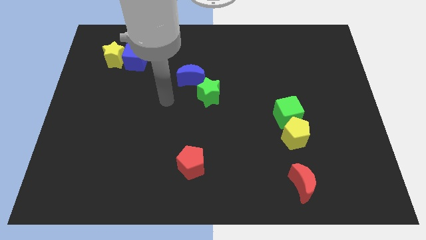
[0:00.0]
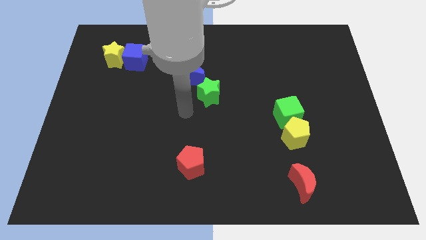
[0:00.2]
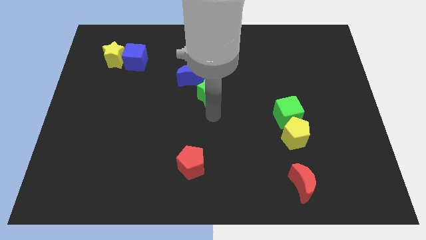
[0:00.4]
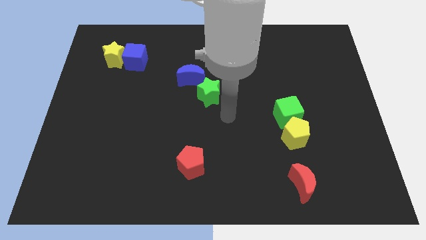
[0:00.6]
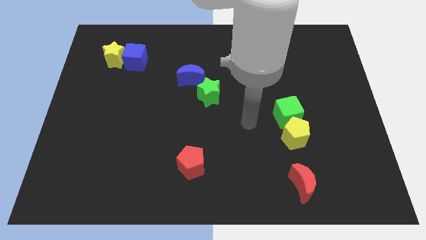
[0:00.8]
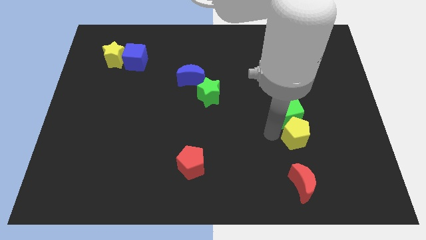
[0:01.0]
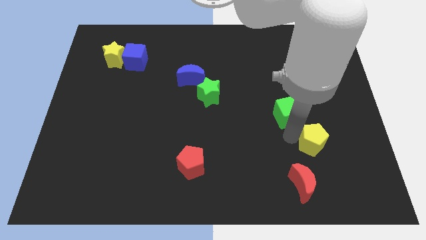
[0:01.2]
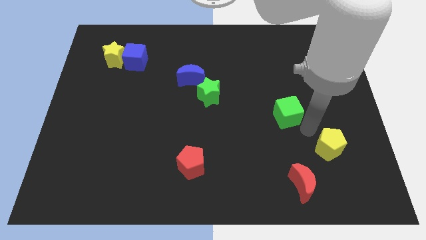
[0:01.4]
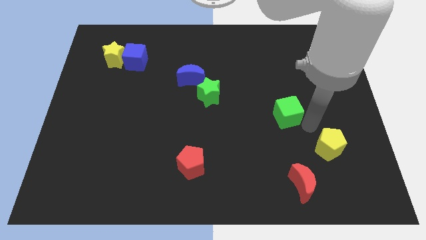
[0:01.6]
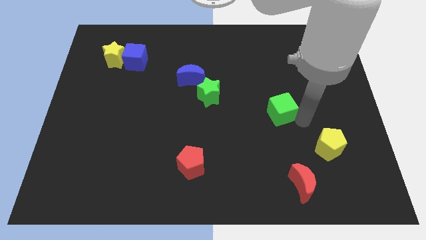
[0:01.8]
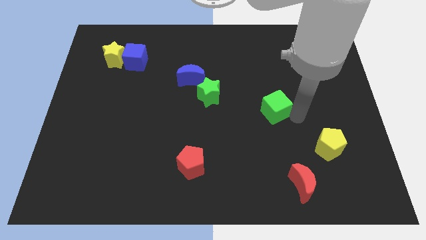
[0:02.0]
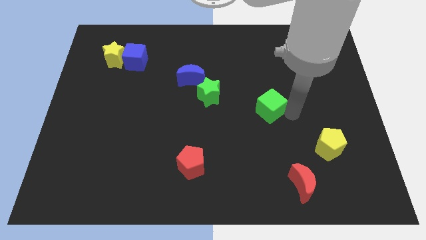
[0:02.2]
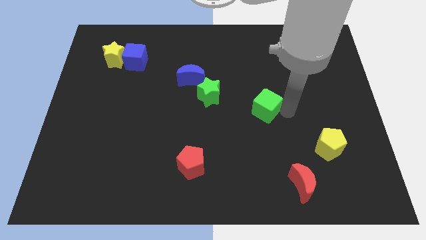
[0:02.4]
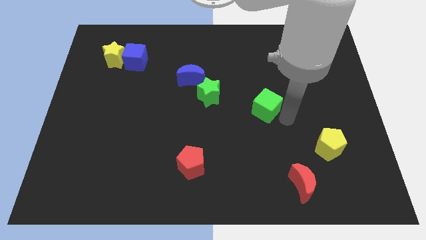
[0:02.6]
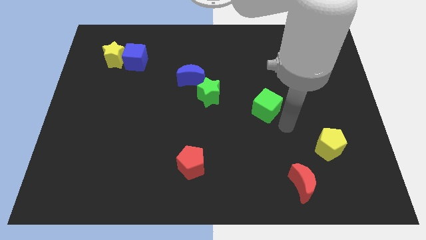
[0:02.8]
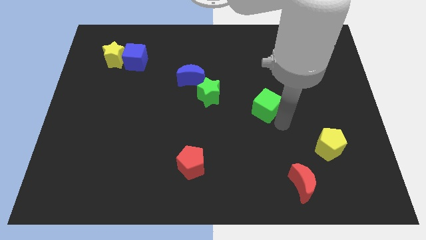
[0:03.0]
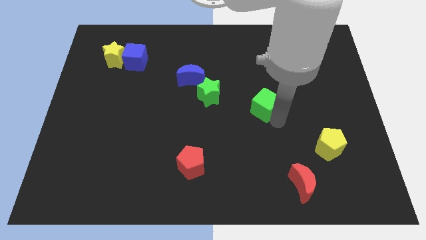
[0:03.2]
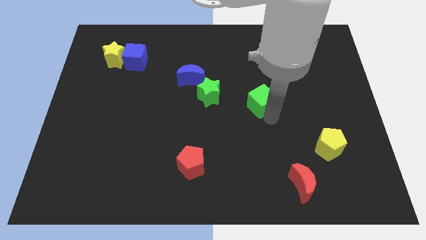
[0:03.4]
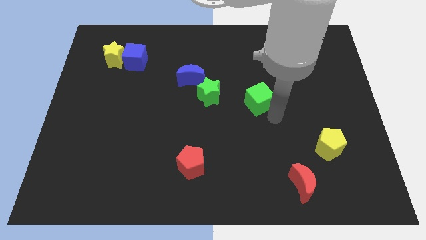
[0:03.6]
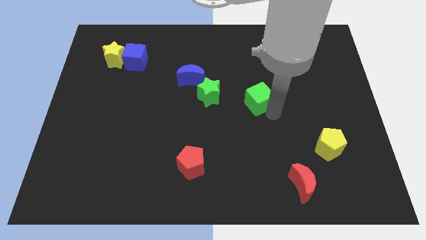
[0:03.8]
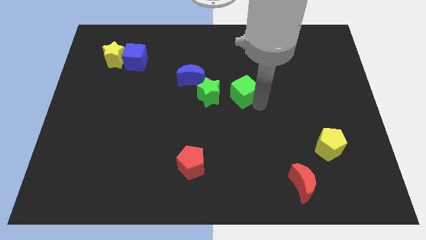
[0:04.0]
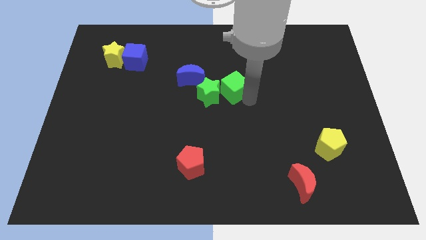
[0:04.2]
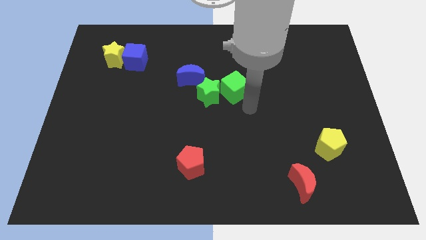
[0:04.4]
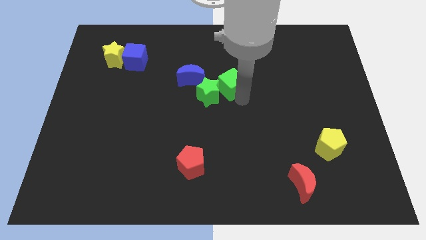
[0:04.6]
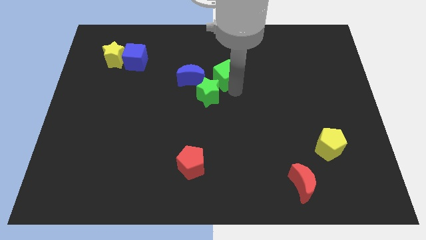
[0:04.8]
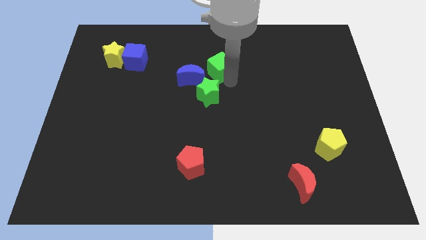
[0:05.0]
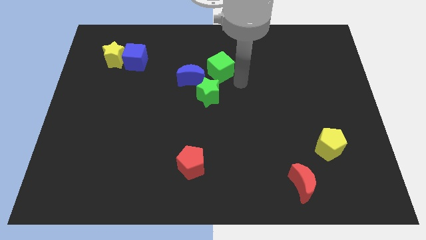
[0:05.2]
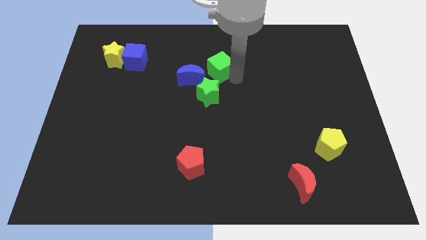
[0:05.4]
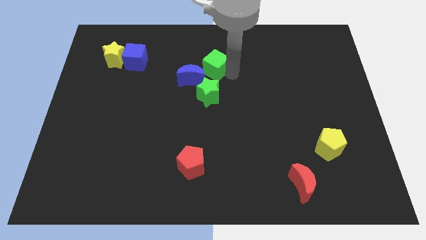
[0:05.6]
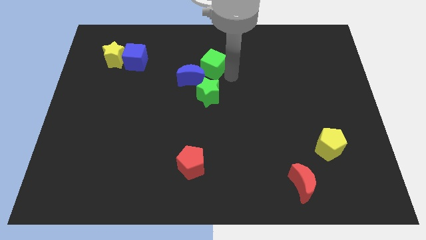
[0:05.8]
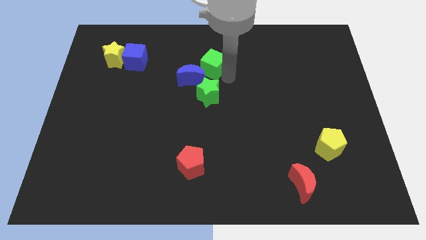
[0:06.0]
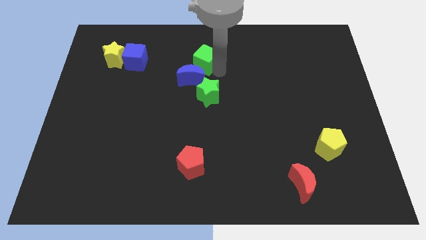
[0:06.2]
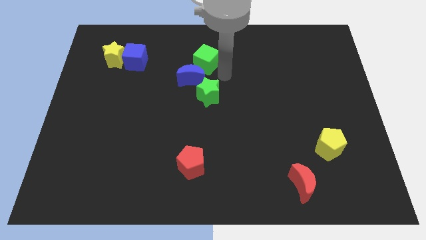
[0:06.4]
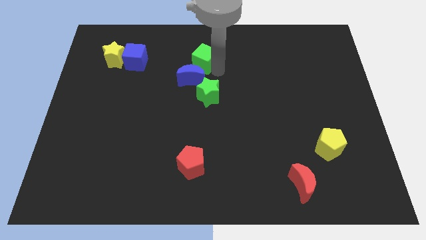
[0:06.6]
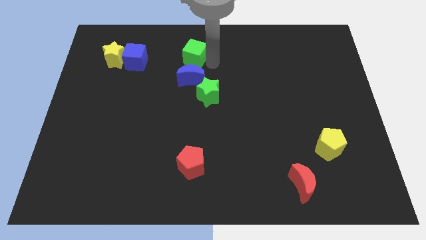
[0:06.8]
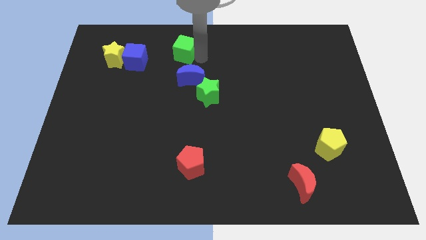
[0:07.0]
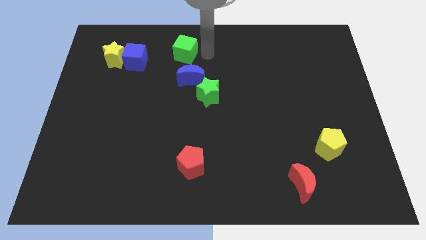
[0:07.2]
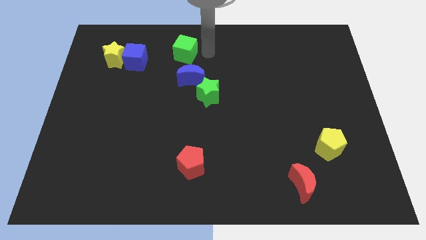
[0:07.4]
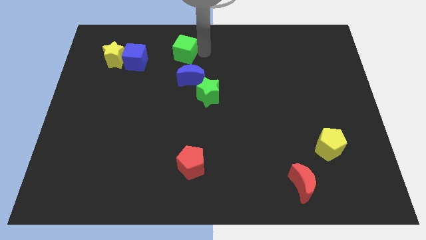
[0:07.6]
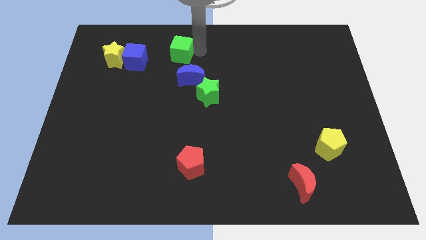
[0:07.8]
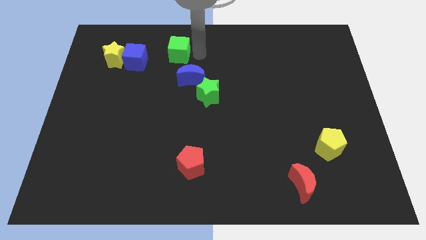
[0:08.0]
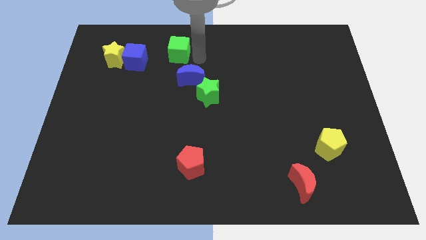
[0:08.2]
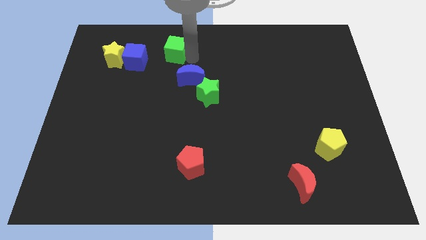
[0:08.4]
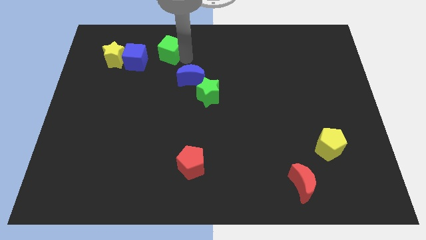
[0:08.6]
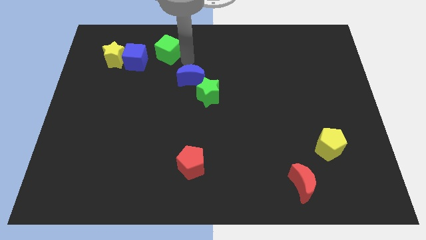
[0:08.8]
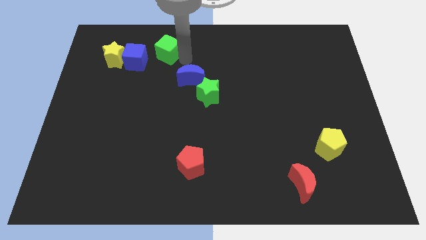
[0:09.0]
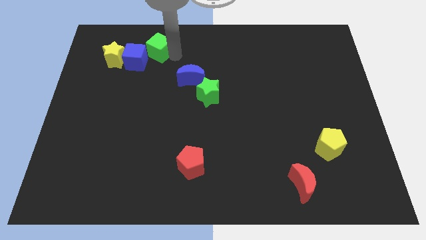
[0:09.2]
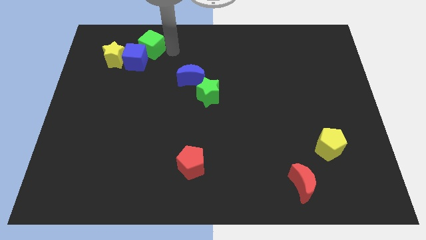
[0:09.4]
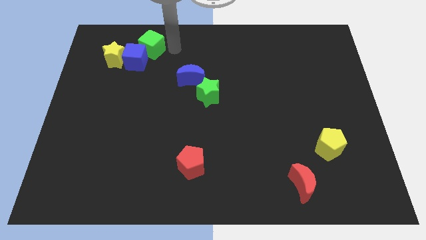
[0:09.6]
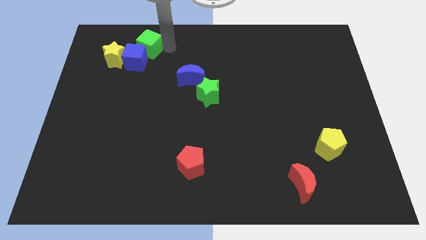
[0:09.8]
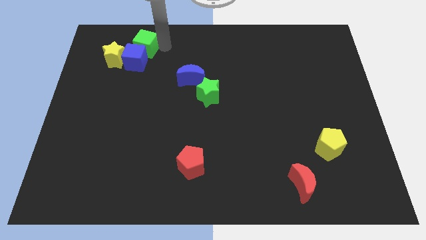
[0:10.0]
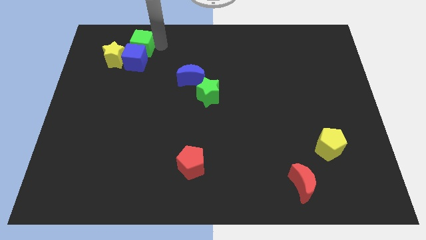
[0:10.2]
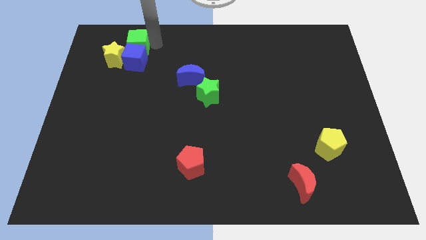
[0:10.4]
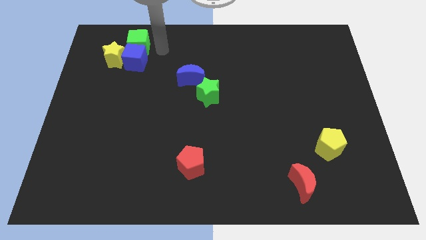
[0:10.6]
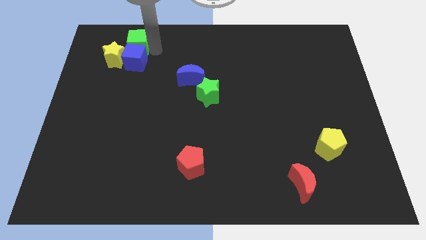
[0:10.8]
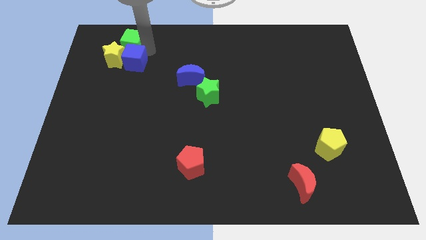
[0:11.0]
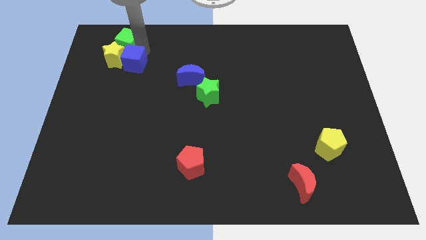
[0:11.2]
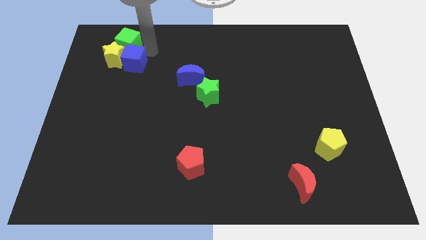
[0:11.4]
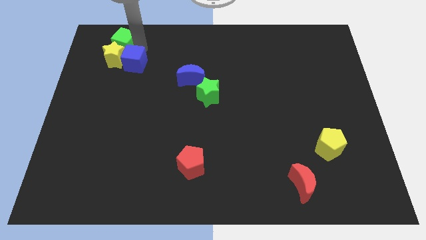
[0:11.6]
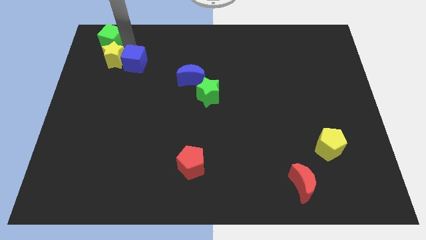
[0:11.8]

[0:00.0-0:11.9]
push the green cube to the top left
